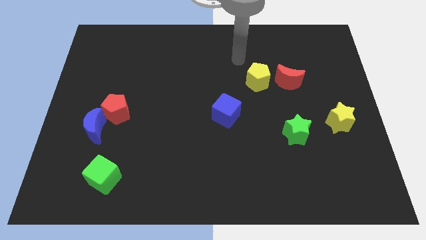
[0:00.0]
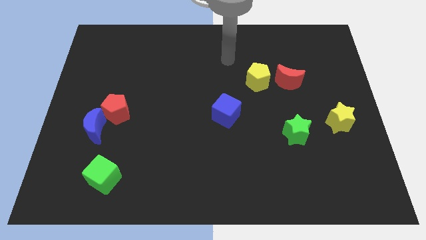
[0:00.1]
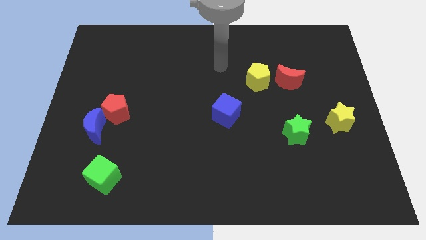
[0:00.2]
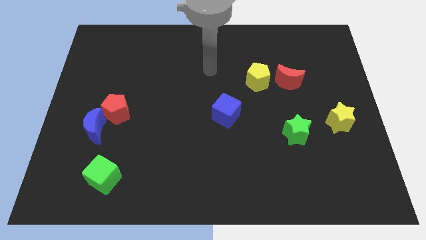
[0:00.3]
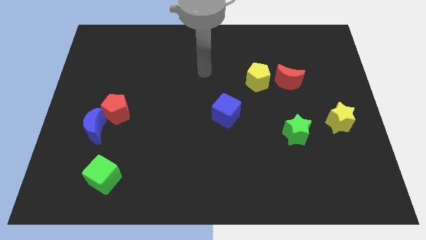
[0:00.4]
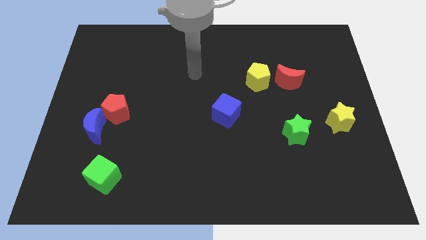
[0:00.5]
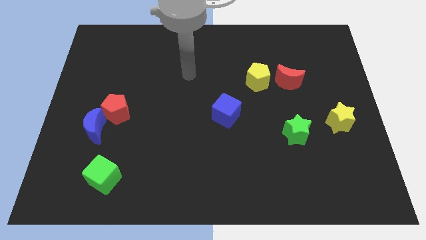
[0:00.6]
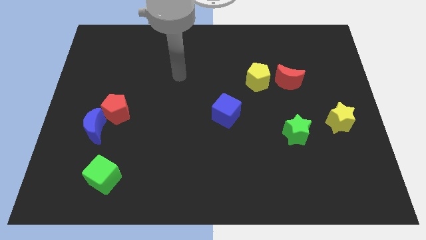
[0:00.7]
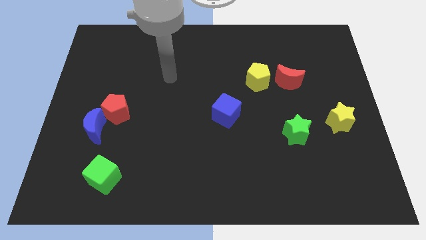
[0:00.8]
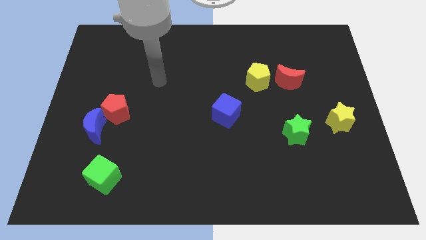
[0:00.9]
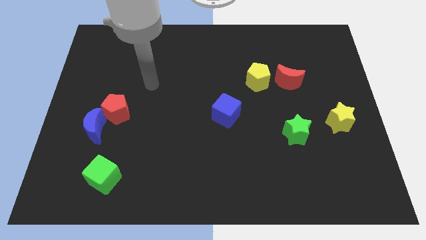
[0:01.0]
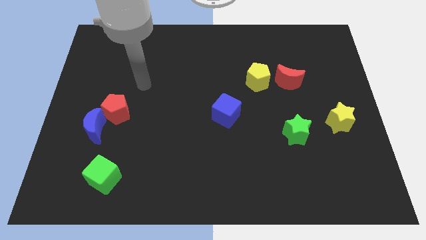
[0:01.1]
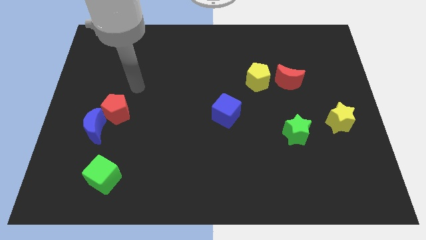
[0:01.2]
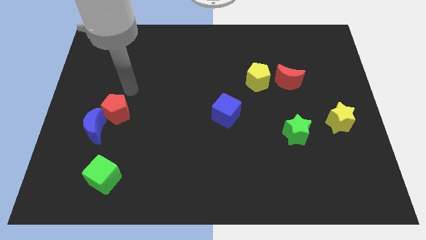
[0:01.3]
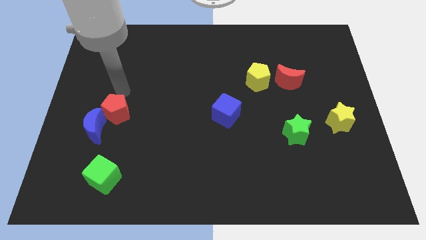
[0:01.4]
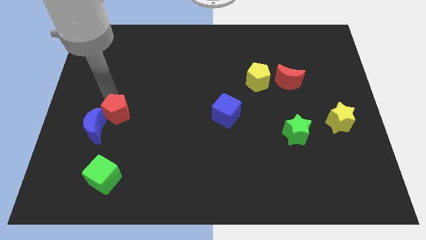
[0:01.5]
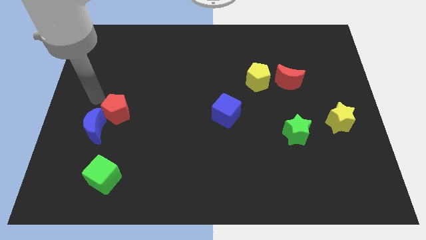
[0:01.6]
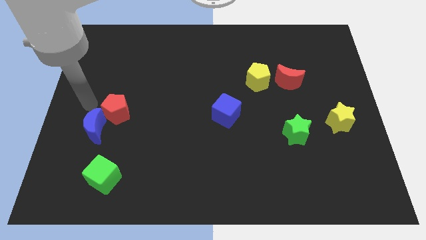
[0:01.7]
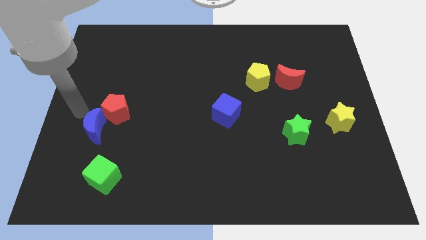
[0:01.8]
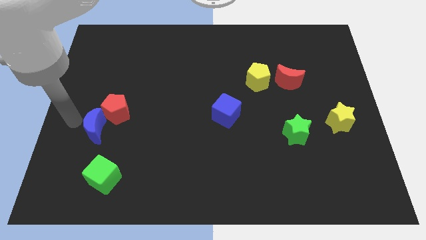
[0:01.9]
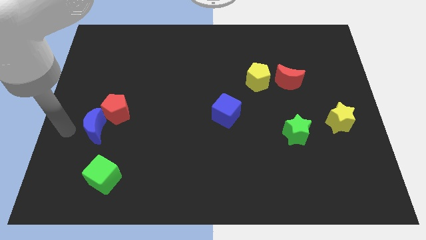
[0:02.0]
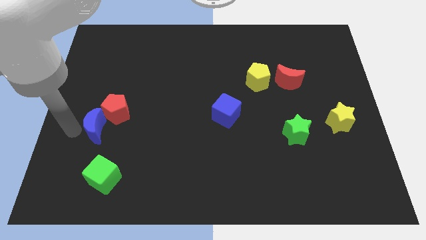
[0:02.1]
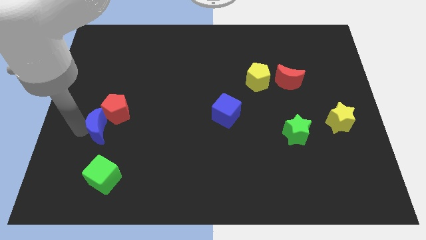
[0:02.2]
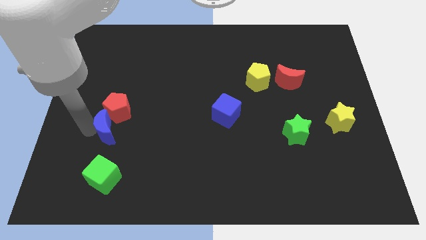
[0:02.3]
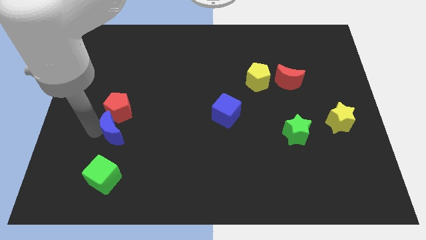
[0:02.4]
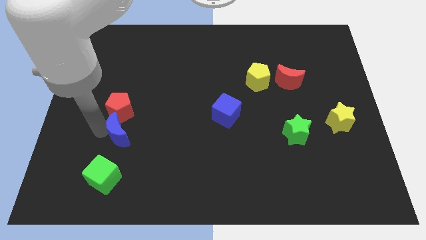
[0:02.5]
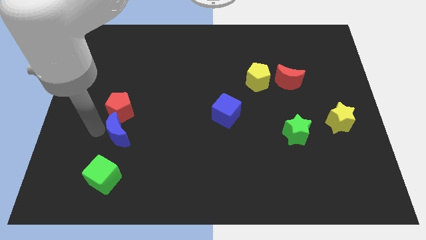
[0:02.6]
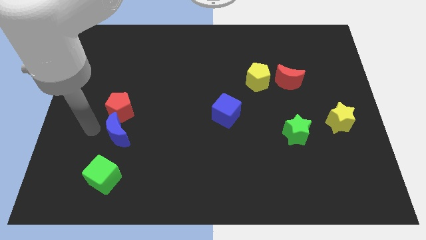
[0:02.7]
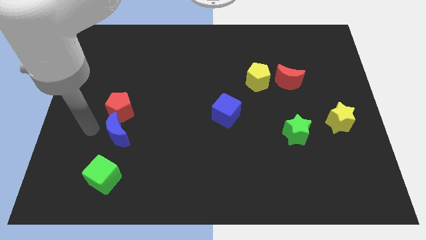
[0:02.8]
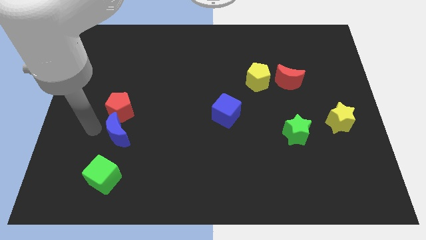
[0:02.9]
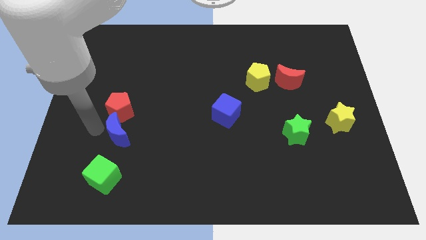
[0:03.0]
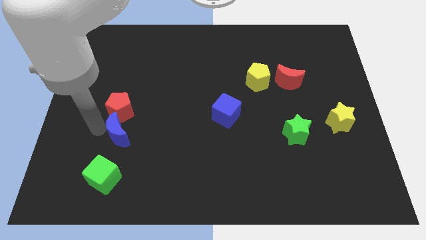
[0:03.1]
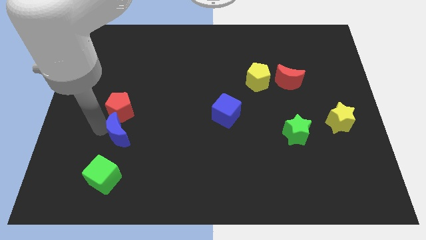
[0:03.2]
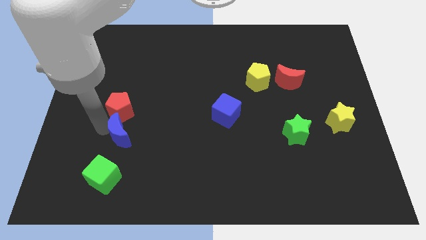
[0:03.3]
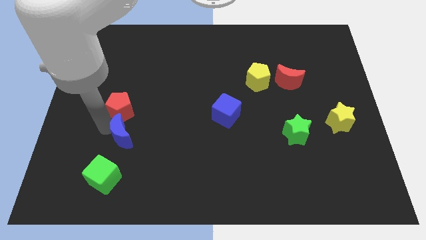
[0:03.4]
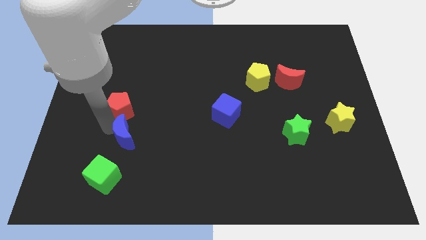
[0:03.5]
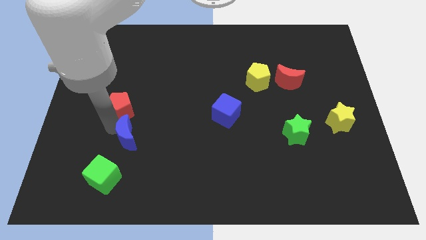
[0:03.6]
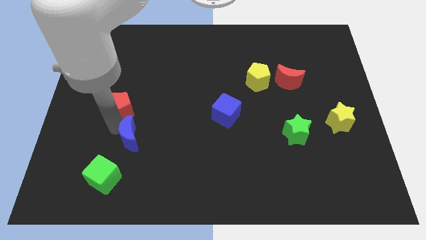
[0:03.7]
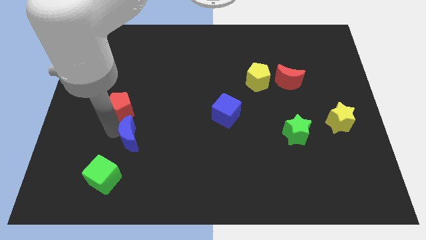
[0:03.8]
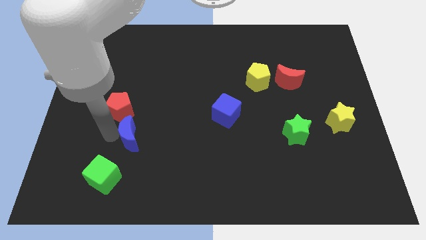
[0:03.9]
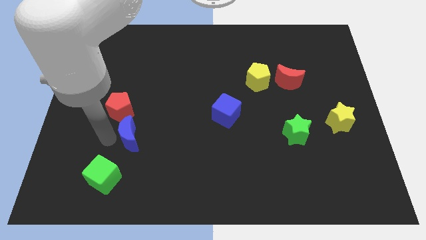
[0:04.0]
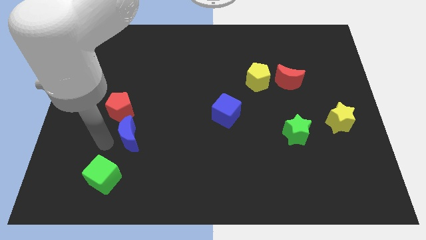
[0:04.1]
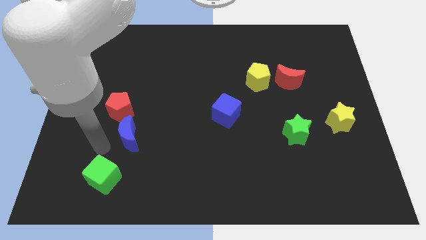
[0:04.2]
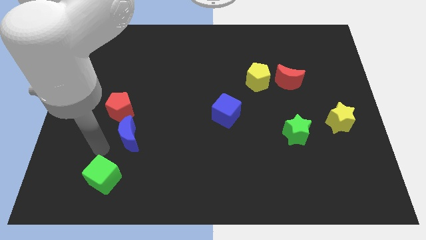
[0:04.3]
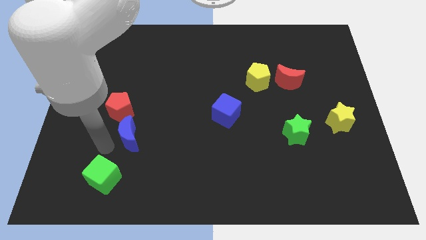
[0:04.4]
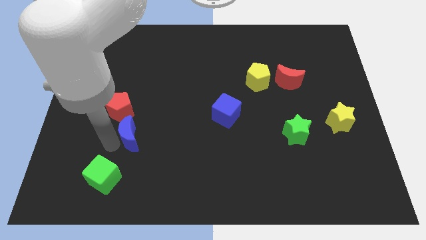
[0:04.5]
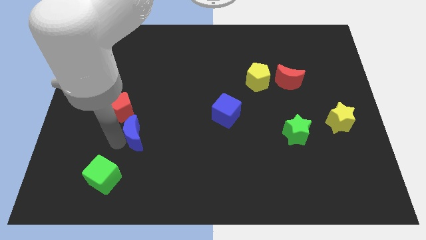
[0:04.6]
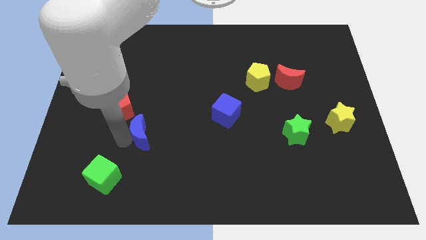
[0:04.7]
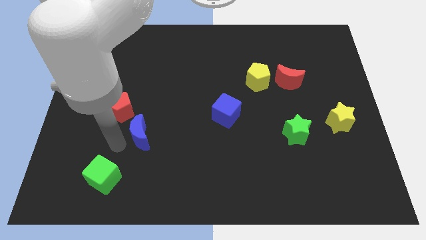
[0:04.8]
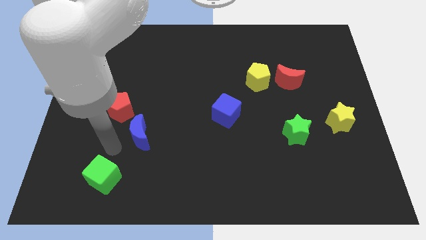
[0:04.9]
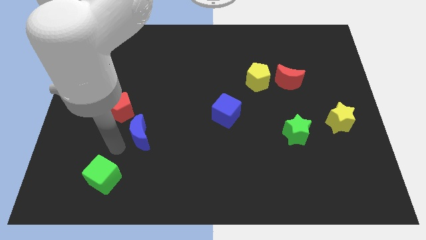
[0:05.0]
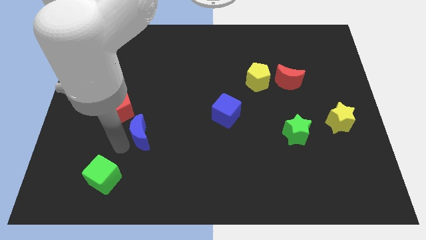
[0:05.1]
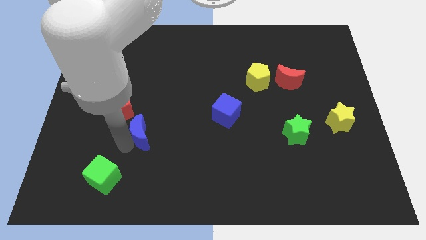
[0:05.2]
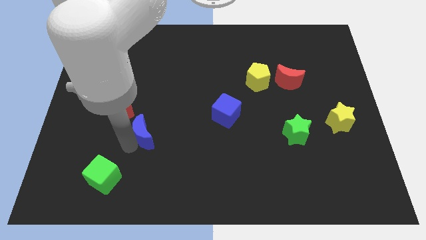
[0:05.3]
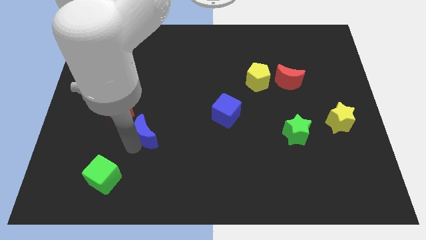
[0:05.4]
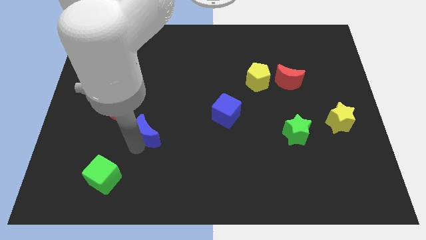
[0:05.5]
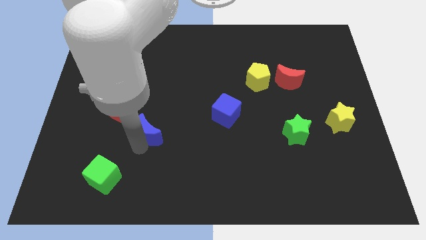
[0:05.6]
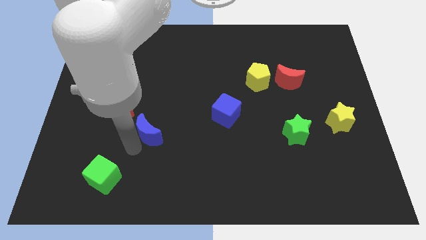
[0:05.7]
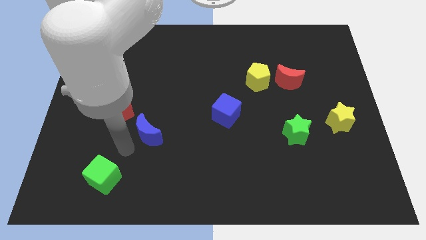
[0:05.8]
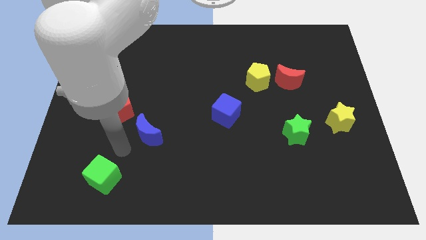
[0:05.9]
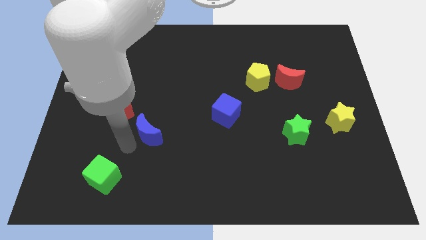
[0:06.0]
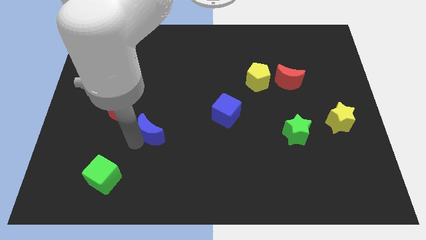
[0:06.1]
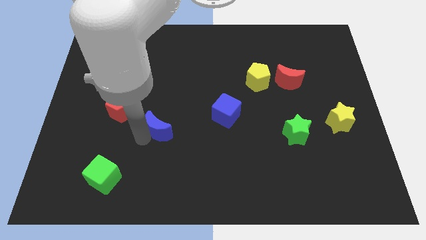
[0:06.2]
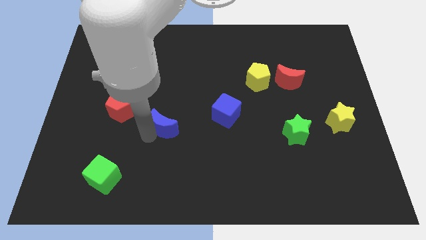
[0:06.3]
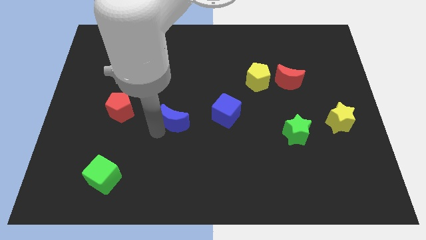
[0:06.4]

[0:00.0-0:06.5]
put the blue moon to the center of the board
